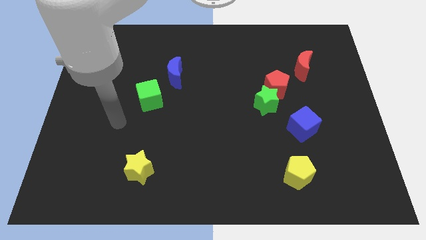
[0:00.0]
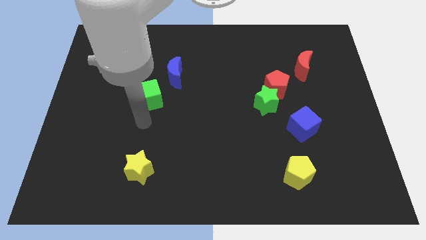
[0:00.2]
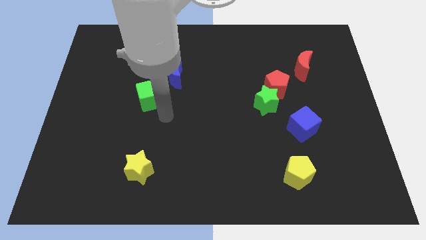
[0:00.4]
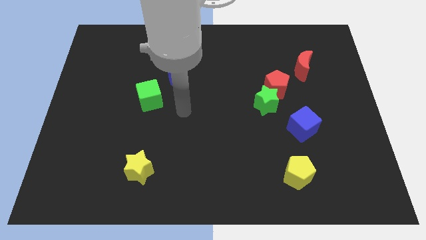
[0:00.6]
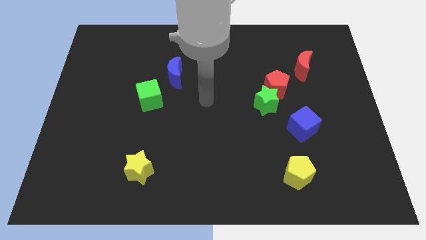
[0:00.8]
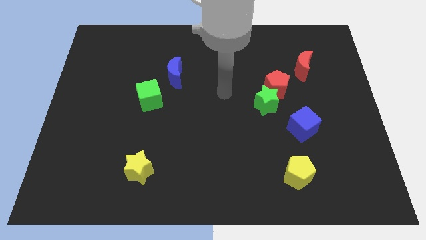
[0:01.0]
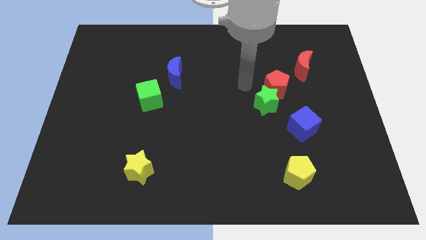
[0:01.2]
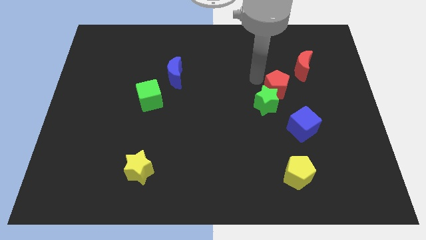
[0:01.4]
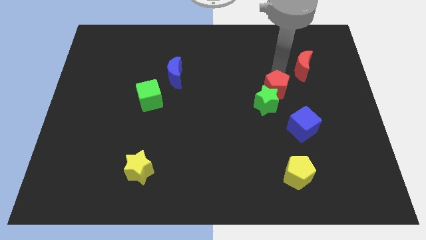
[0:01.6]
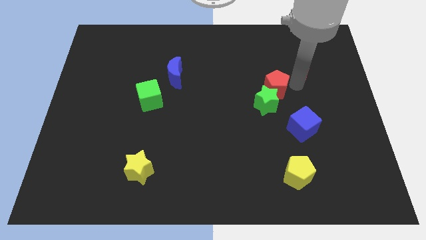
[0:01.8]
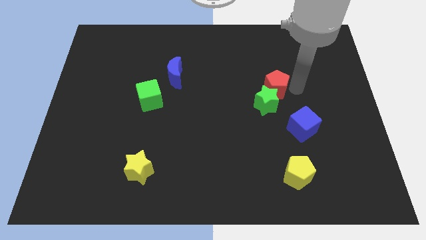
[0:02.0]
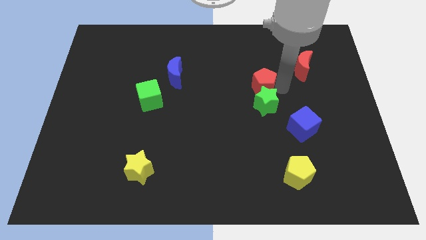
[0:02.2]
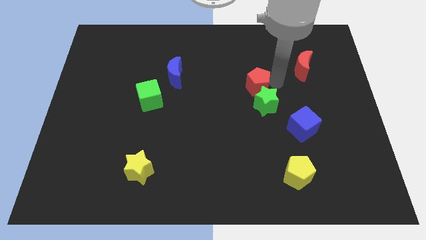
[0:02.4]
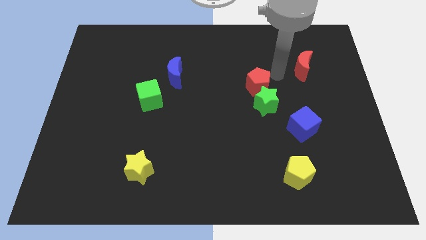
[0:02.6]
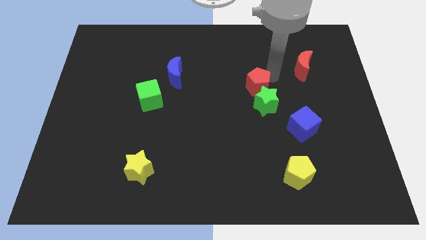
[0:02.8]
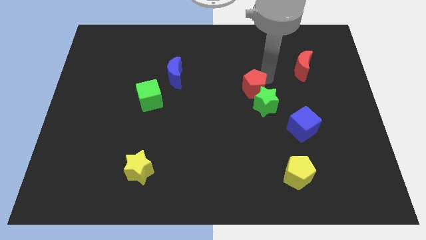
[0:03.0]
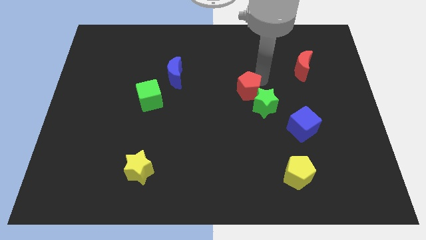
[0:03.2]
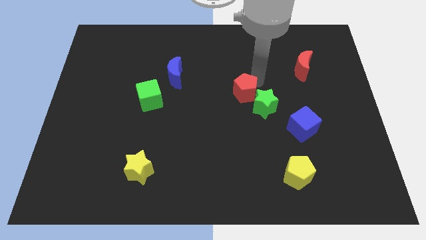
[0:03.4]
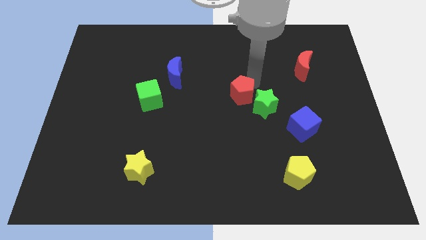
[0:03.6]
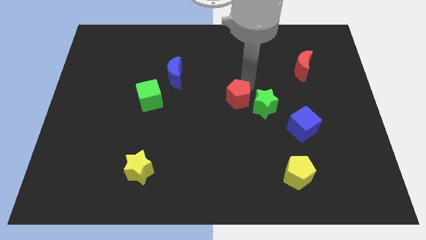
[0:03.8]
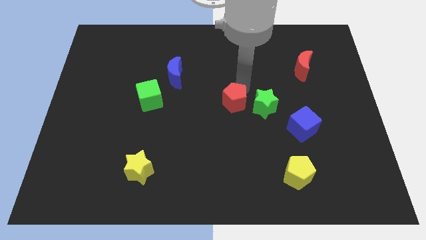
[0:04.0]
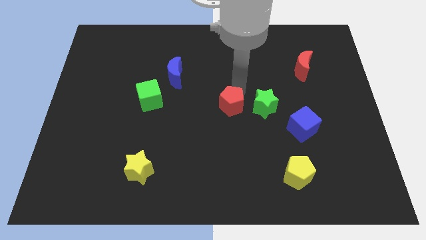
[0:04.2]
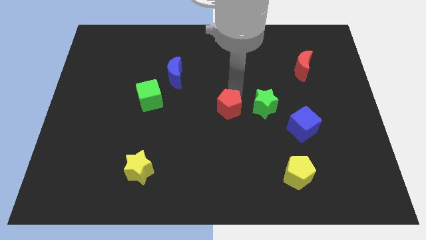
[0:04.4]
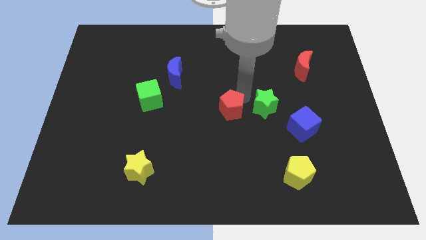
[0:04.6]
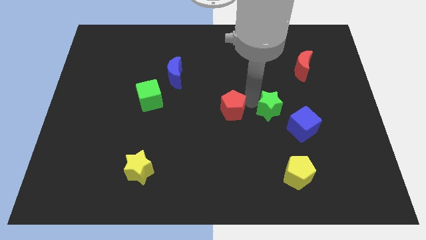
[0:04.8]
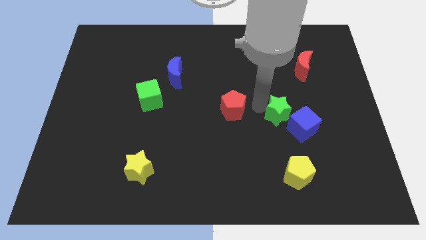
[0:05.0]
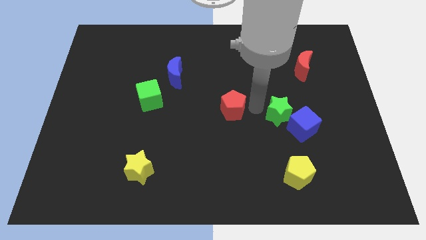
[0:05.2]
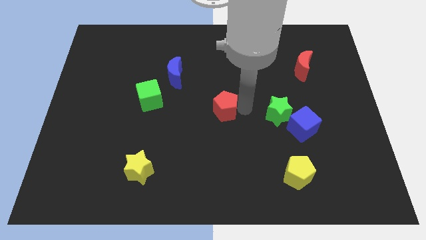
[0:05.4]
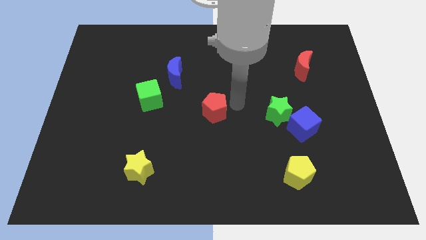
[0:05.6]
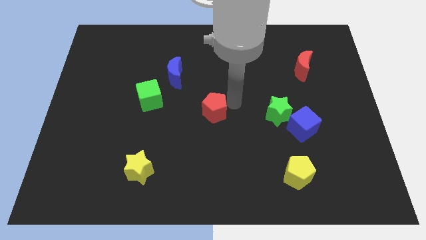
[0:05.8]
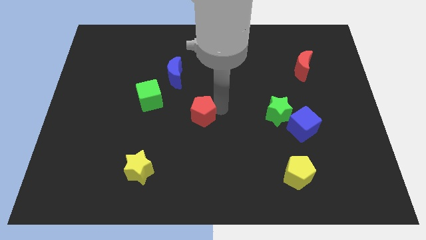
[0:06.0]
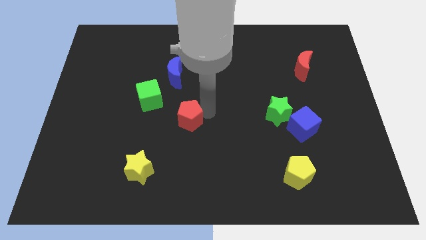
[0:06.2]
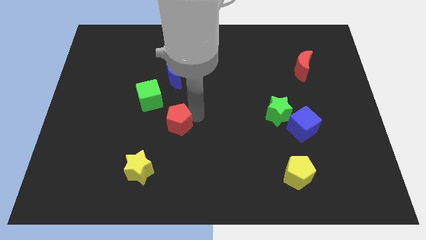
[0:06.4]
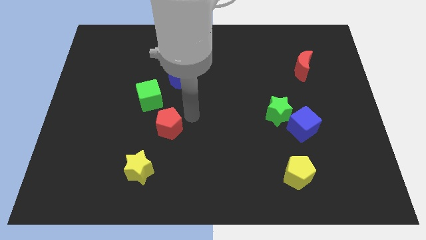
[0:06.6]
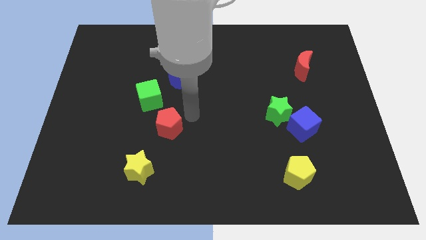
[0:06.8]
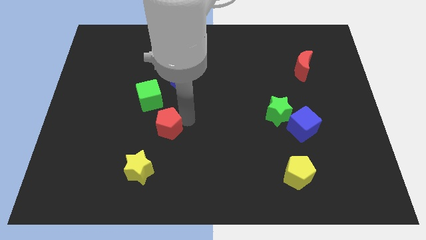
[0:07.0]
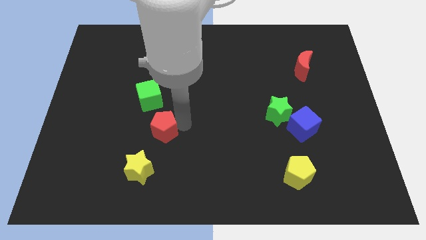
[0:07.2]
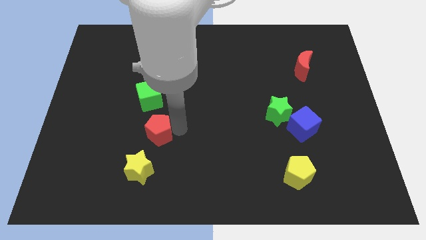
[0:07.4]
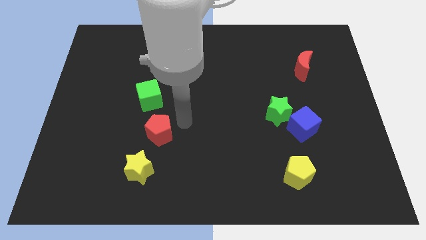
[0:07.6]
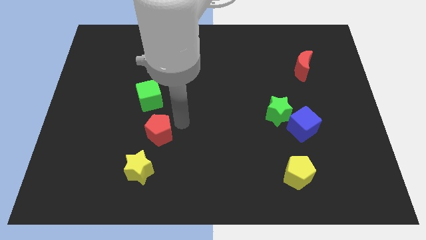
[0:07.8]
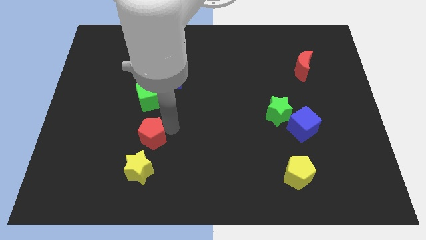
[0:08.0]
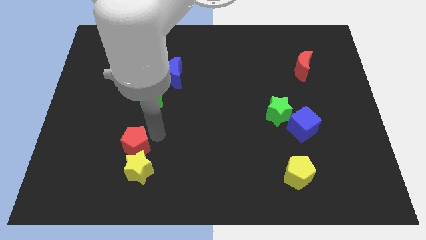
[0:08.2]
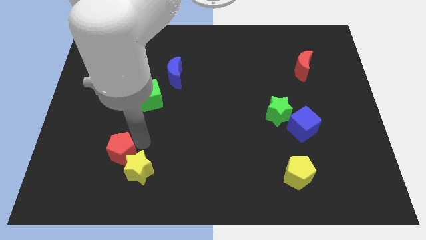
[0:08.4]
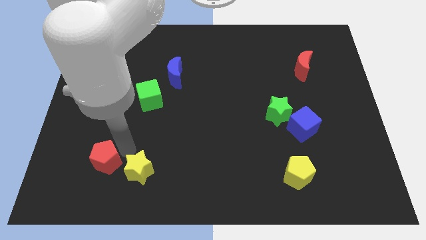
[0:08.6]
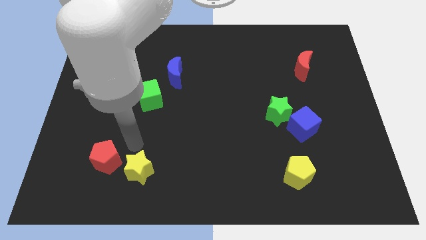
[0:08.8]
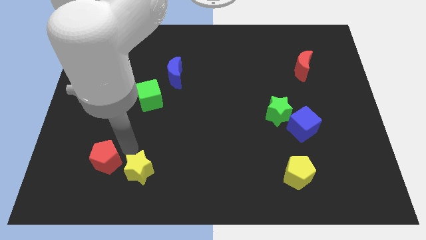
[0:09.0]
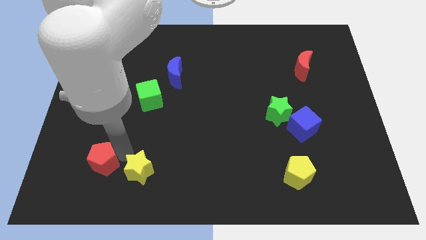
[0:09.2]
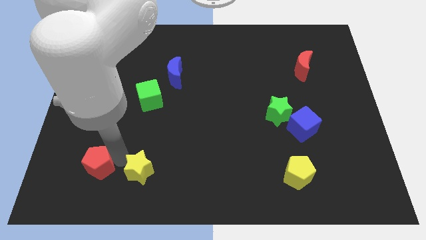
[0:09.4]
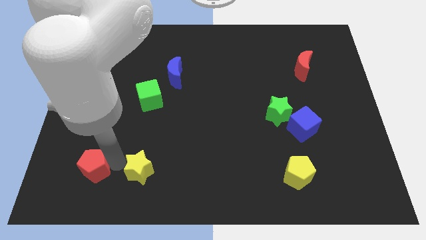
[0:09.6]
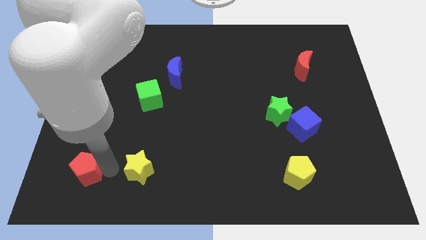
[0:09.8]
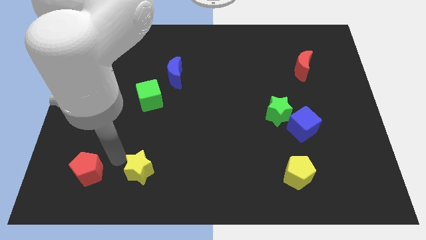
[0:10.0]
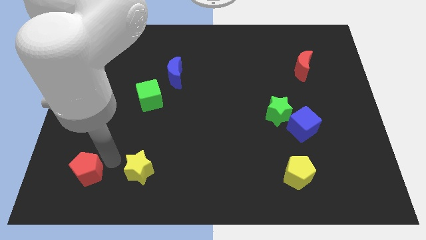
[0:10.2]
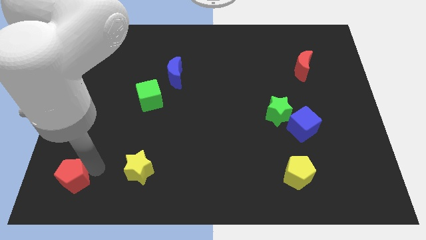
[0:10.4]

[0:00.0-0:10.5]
push the red pentagon to the lower left corner

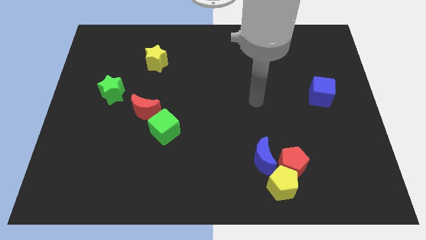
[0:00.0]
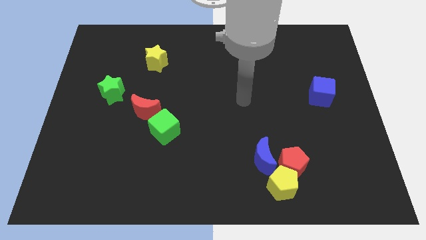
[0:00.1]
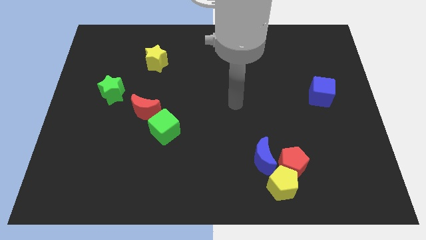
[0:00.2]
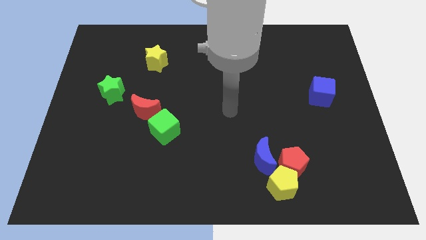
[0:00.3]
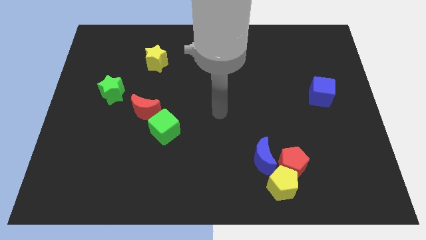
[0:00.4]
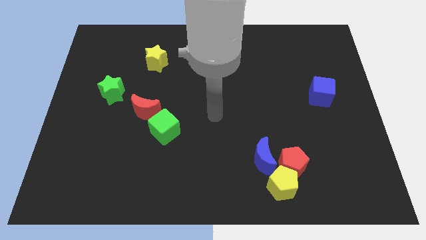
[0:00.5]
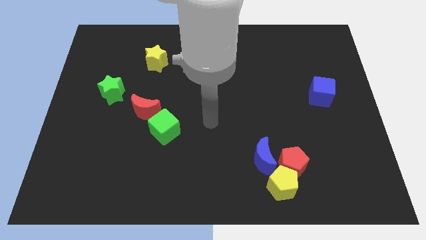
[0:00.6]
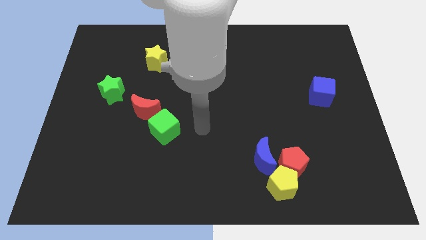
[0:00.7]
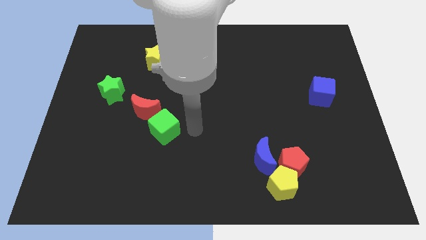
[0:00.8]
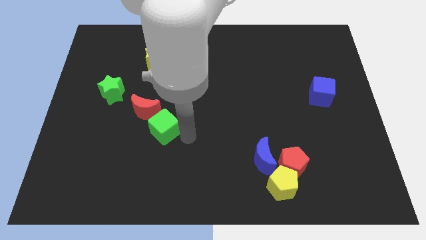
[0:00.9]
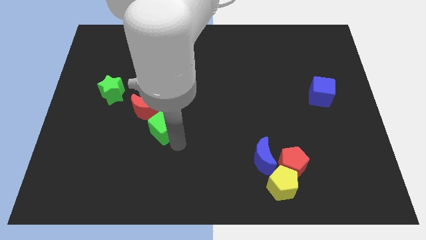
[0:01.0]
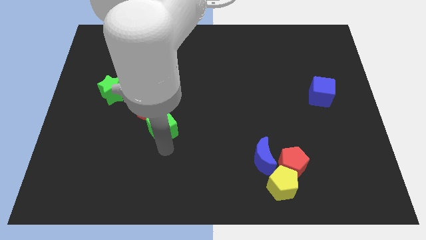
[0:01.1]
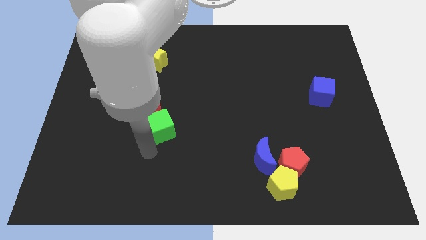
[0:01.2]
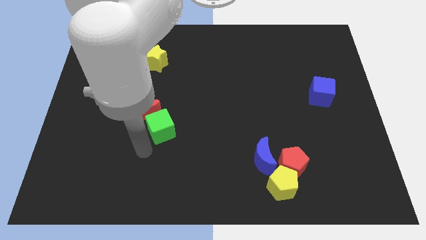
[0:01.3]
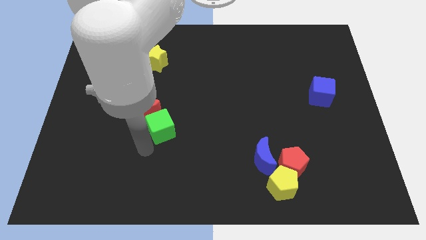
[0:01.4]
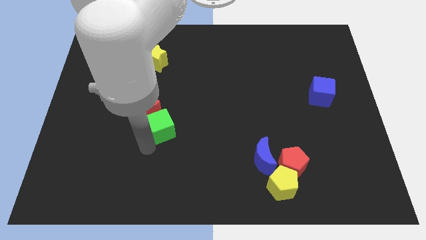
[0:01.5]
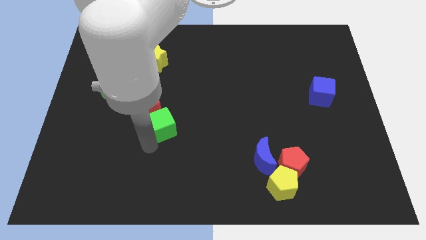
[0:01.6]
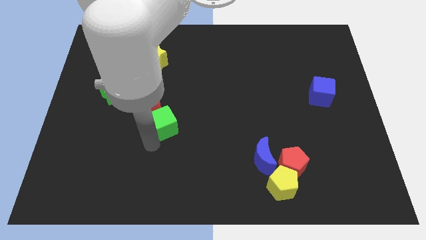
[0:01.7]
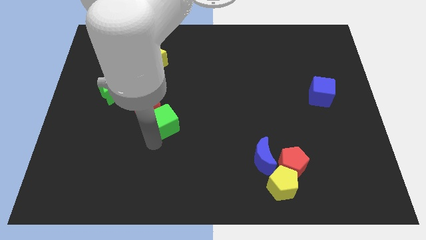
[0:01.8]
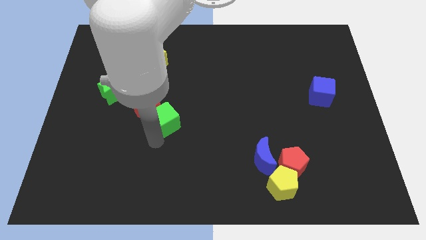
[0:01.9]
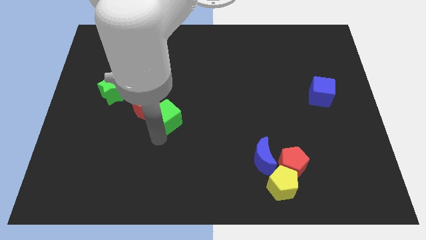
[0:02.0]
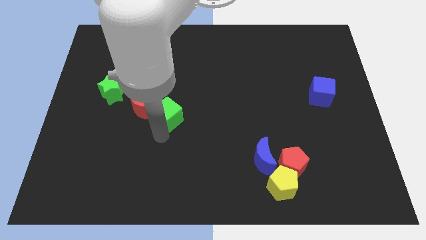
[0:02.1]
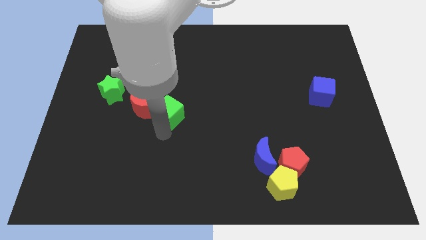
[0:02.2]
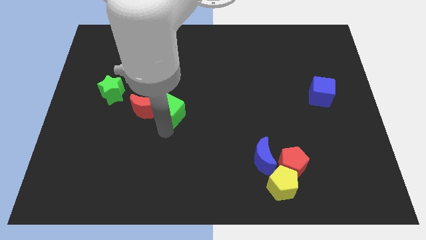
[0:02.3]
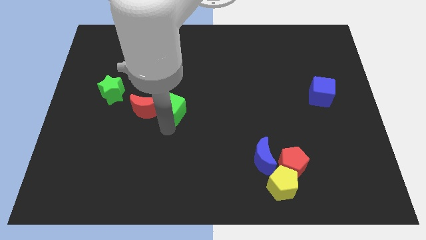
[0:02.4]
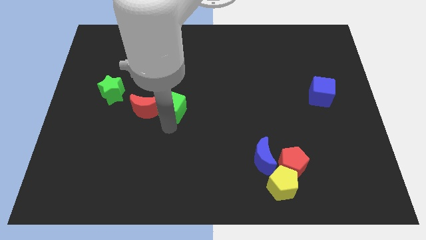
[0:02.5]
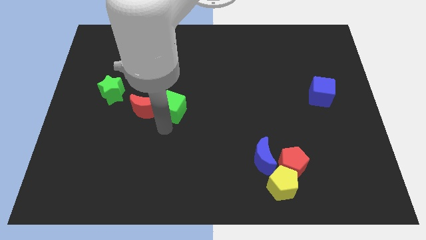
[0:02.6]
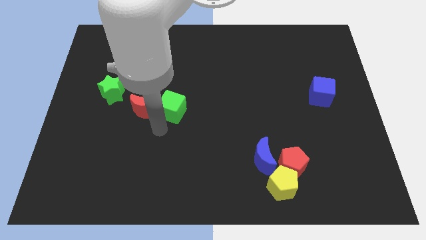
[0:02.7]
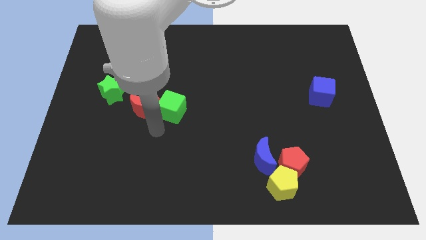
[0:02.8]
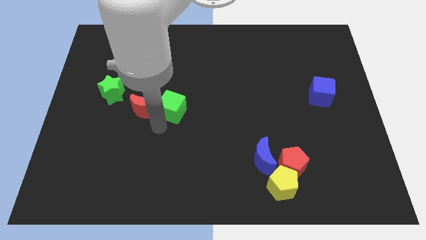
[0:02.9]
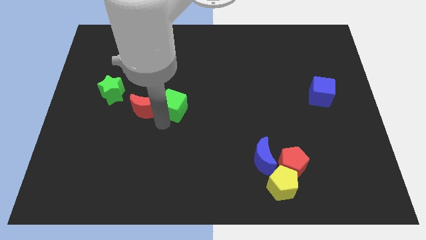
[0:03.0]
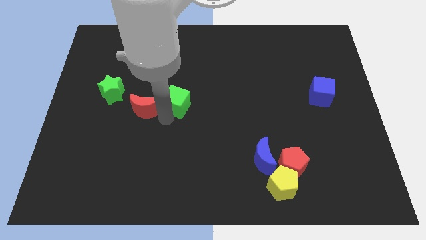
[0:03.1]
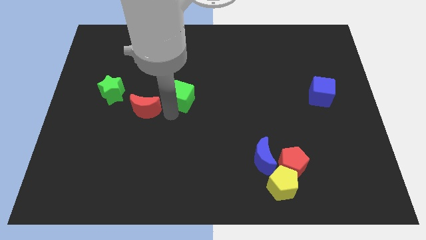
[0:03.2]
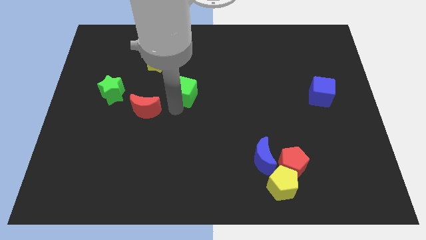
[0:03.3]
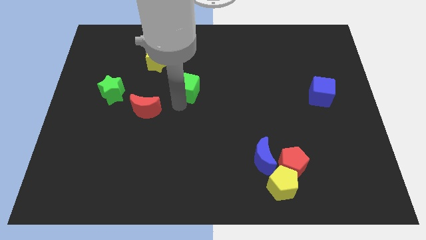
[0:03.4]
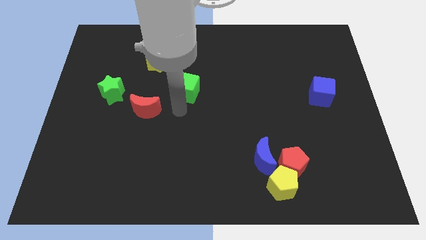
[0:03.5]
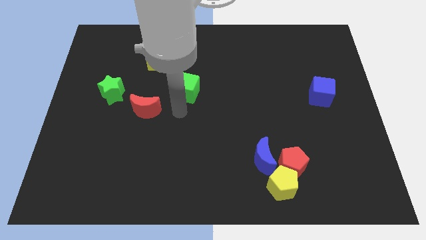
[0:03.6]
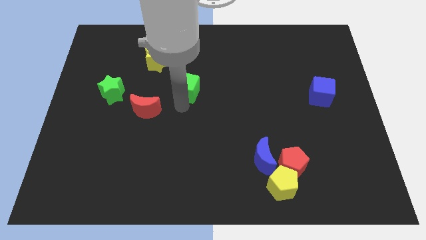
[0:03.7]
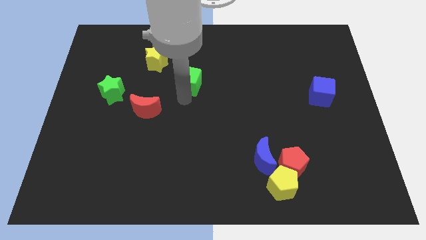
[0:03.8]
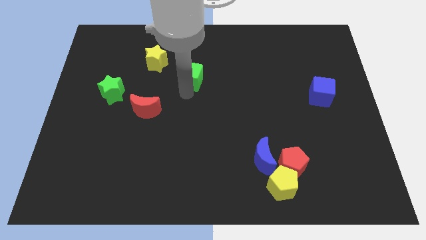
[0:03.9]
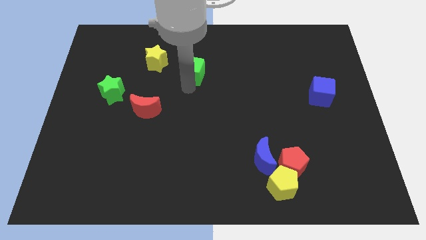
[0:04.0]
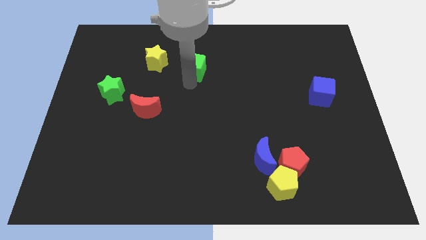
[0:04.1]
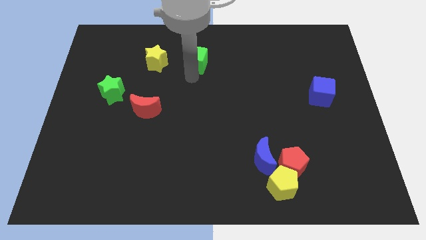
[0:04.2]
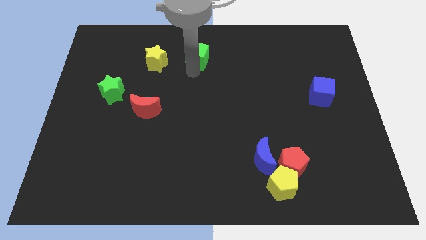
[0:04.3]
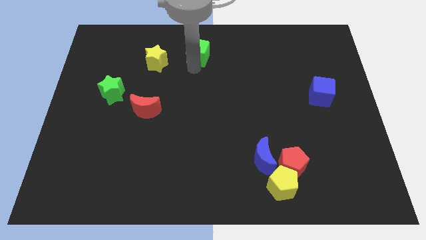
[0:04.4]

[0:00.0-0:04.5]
push the green cube to the towards your base
